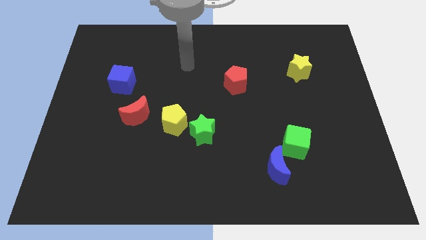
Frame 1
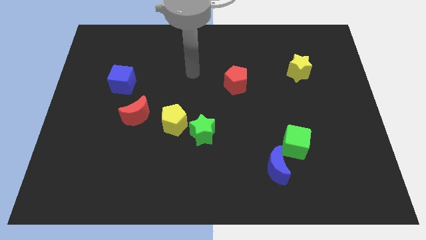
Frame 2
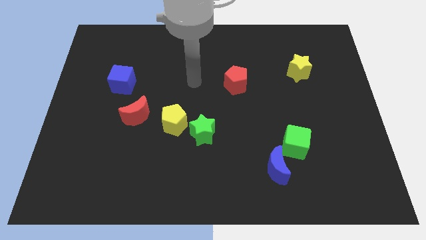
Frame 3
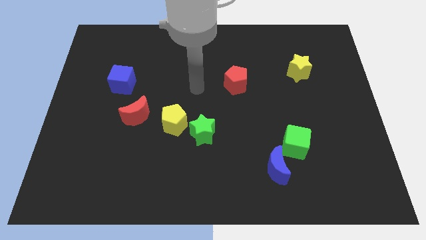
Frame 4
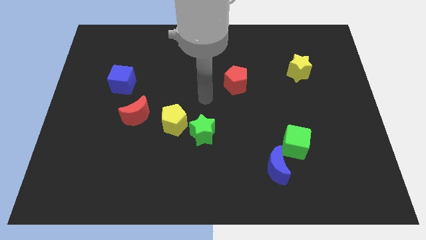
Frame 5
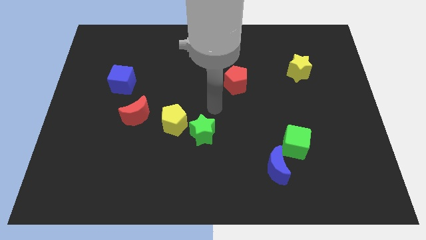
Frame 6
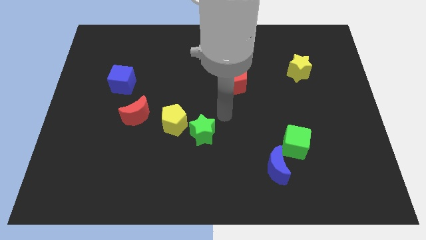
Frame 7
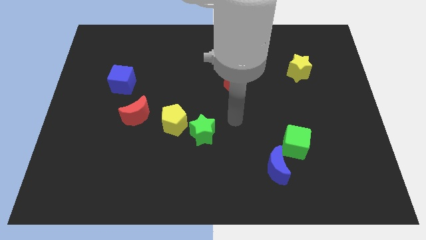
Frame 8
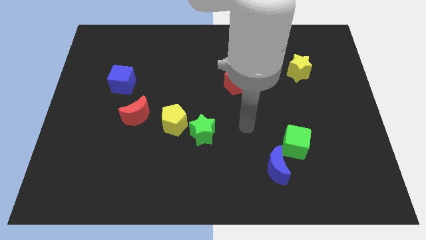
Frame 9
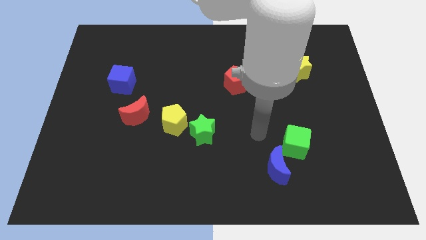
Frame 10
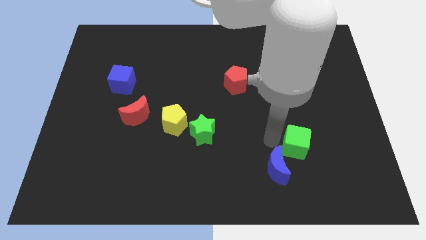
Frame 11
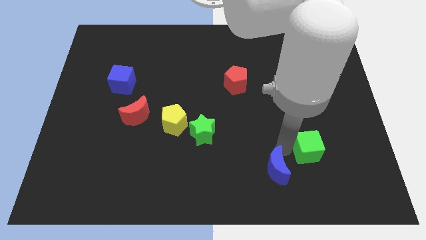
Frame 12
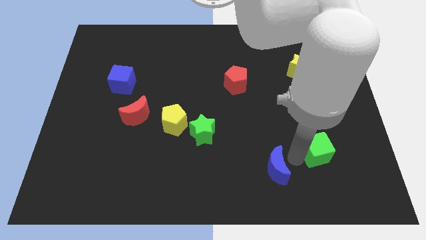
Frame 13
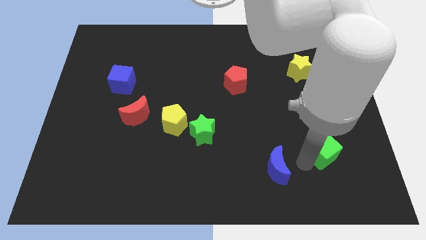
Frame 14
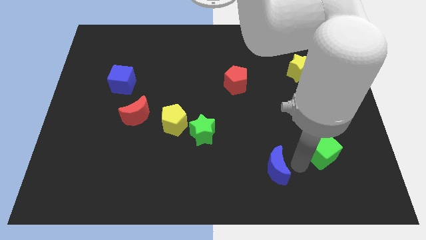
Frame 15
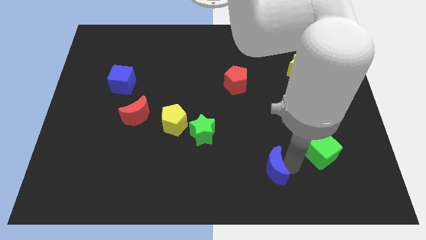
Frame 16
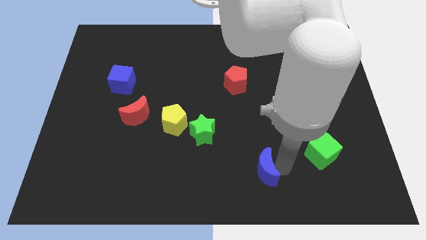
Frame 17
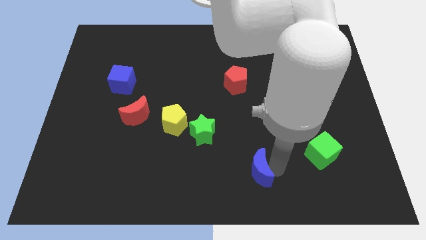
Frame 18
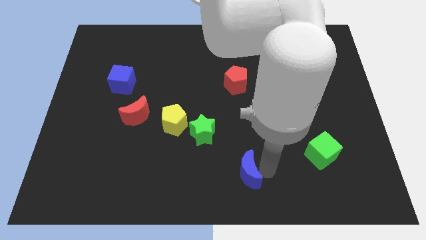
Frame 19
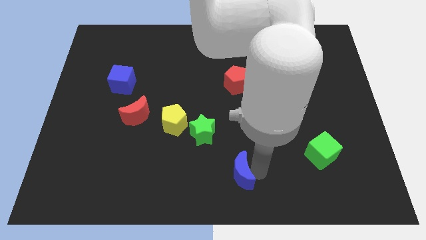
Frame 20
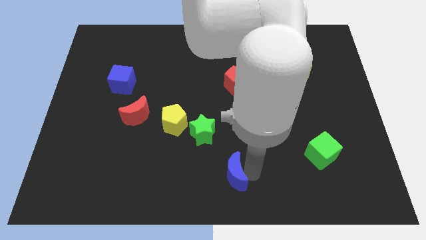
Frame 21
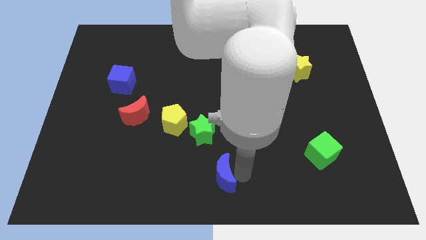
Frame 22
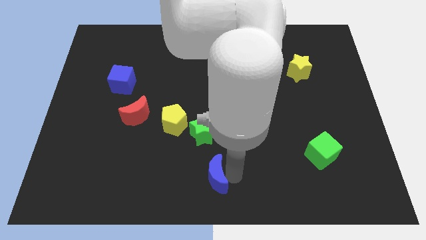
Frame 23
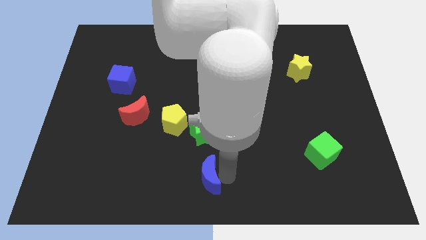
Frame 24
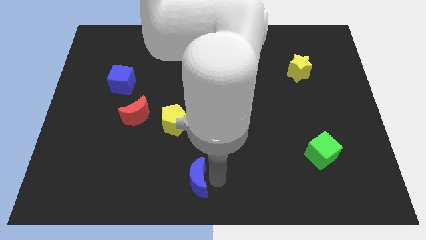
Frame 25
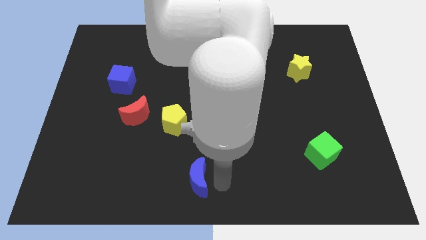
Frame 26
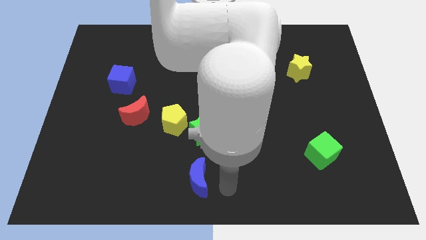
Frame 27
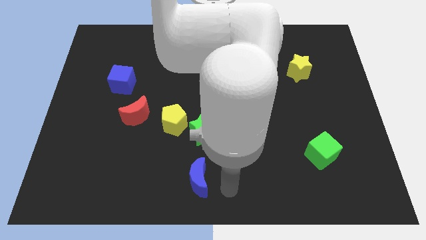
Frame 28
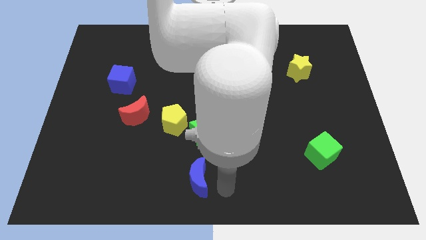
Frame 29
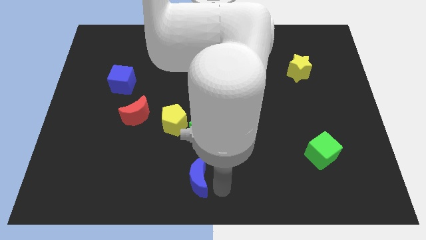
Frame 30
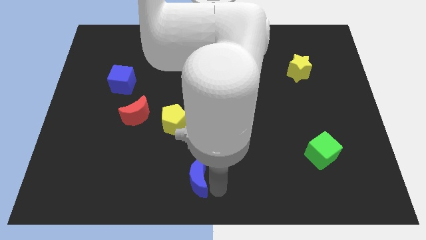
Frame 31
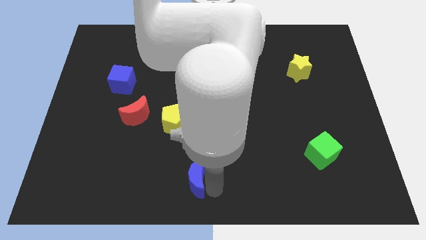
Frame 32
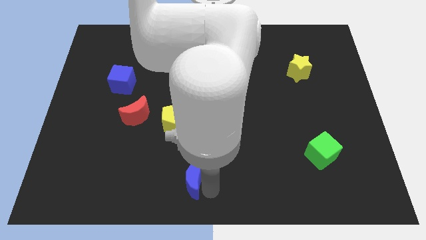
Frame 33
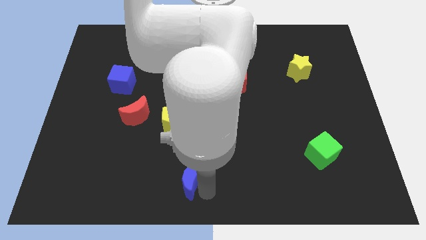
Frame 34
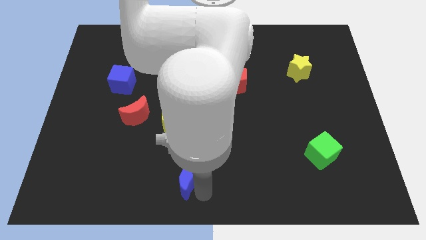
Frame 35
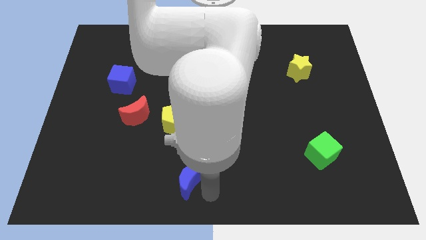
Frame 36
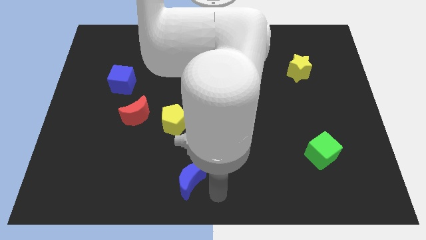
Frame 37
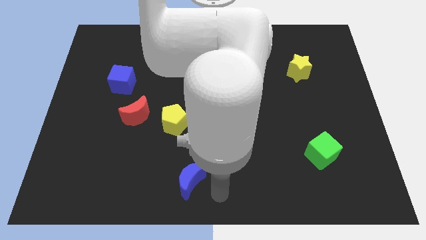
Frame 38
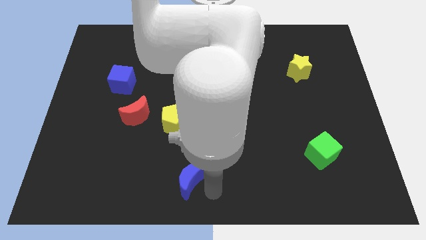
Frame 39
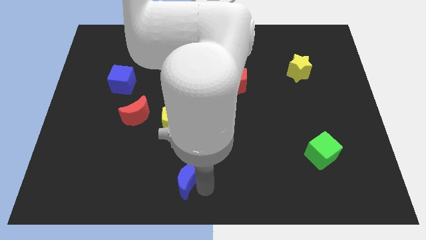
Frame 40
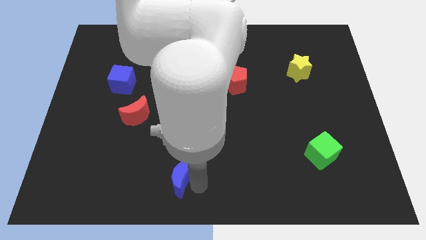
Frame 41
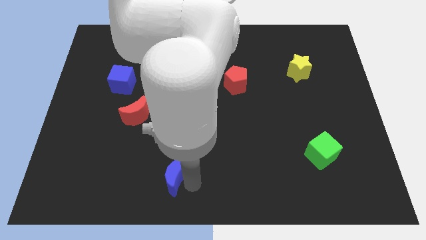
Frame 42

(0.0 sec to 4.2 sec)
slide the blue moon to the left

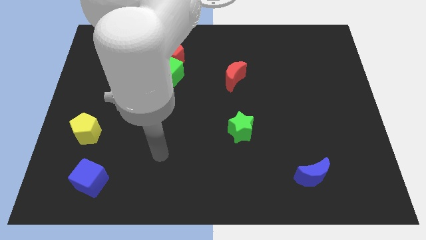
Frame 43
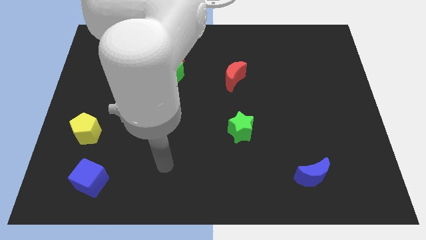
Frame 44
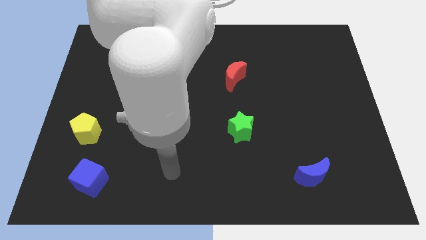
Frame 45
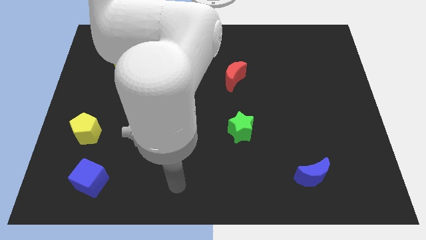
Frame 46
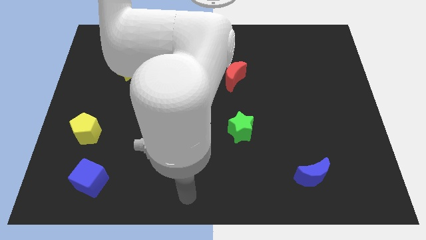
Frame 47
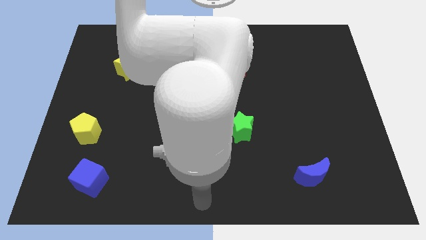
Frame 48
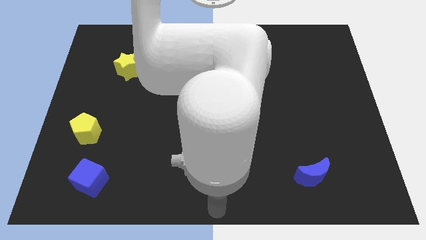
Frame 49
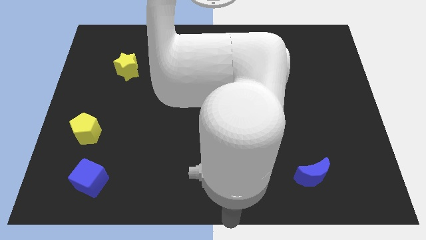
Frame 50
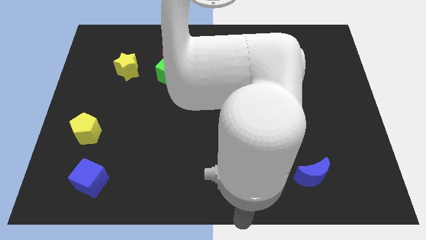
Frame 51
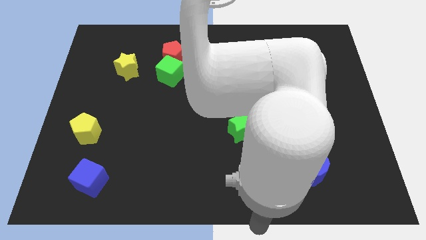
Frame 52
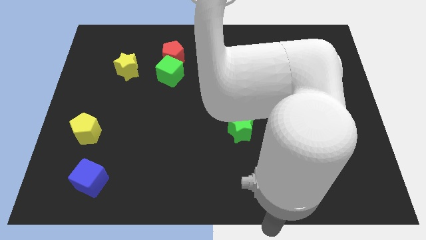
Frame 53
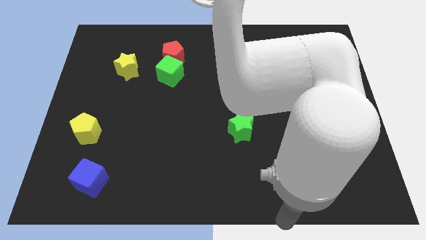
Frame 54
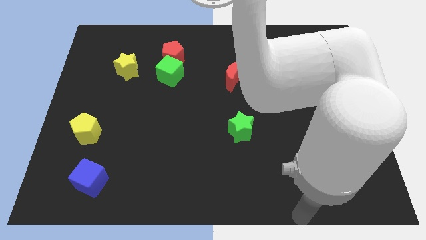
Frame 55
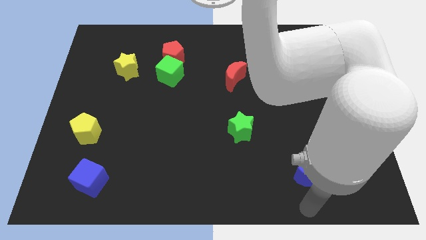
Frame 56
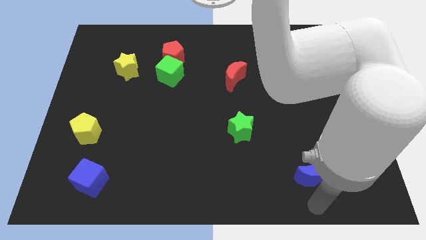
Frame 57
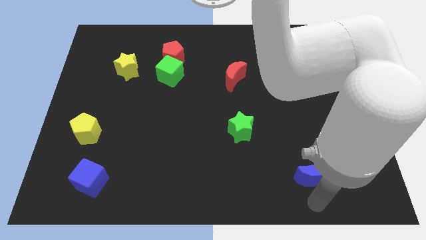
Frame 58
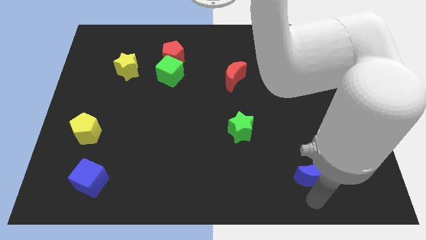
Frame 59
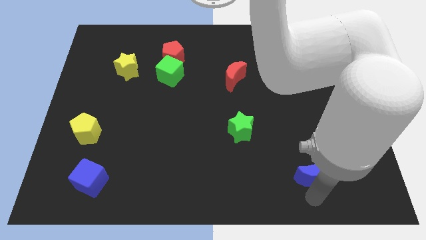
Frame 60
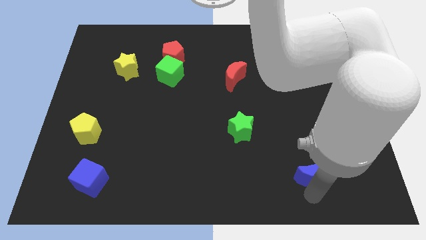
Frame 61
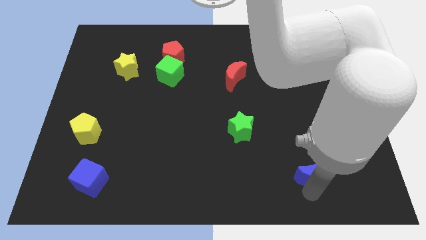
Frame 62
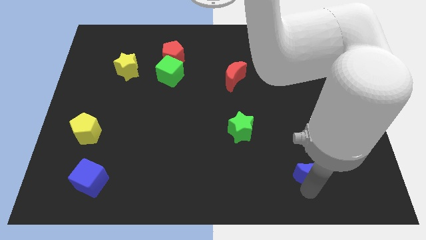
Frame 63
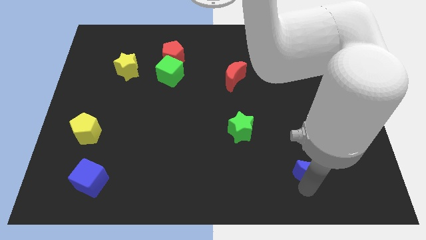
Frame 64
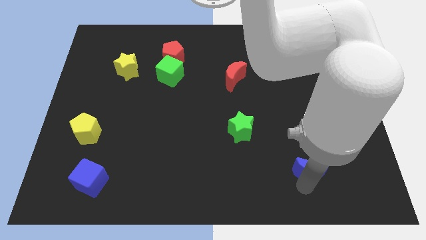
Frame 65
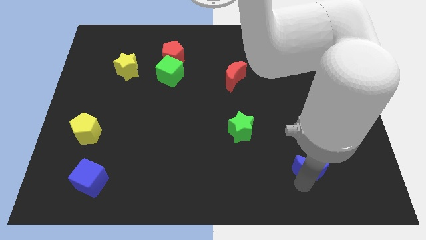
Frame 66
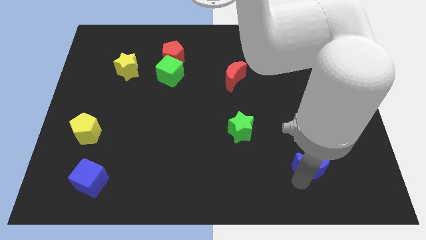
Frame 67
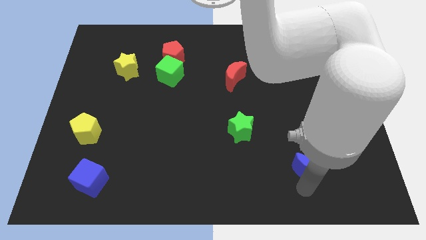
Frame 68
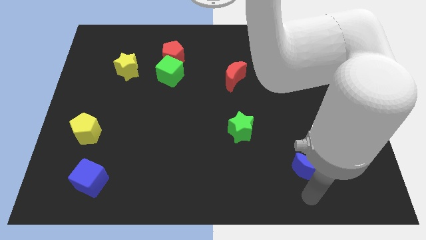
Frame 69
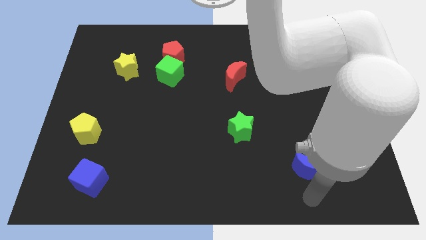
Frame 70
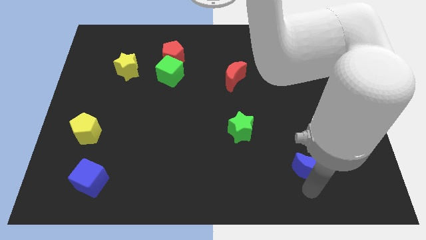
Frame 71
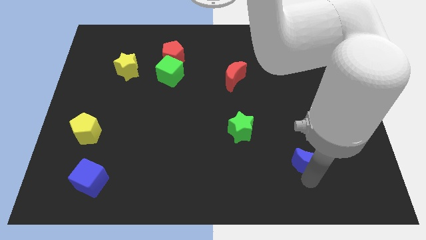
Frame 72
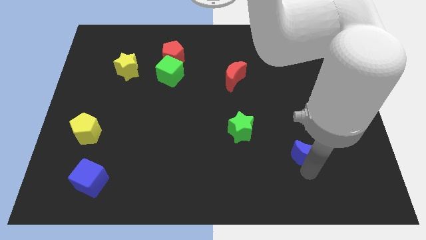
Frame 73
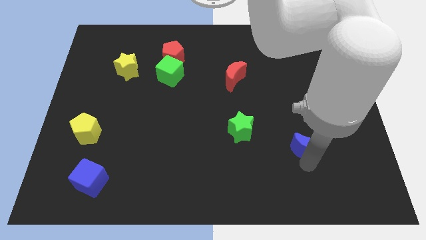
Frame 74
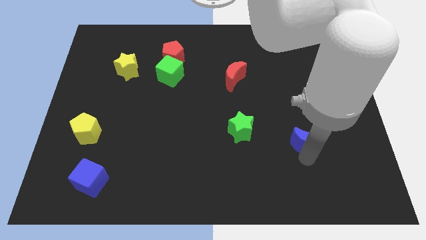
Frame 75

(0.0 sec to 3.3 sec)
slide the blue moon upwards a little bit

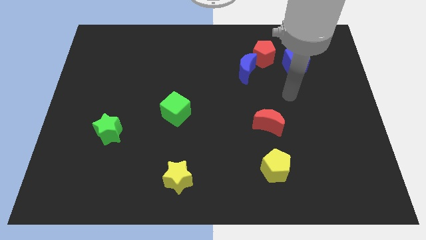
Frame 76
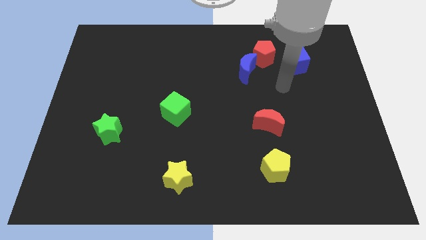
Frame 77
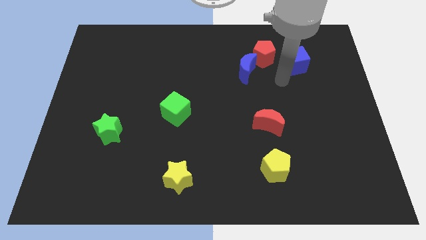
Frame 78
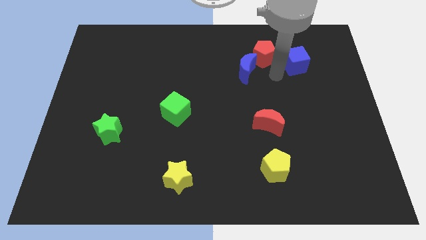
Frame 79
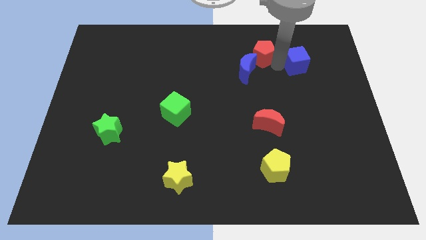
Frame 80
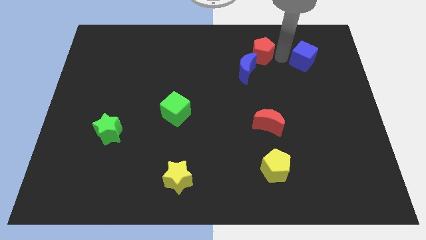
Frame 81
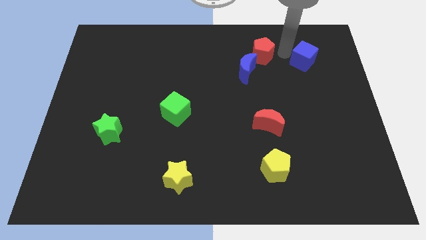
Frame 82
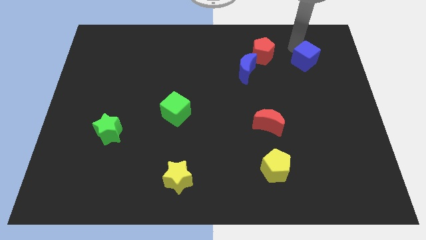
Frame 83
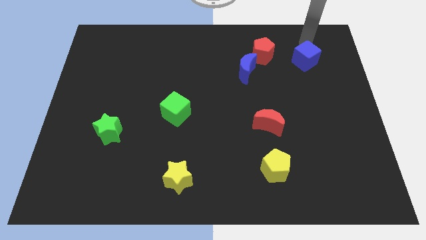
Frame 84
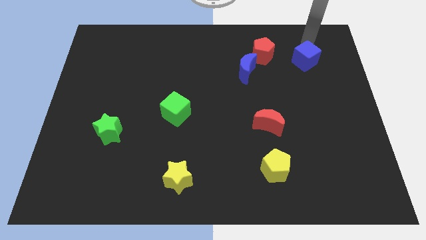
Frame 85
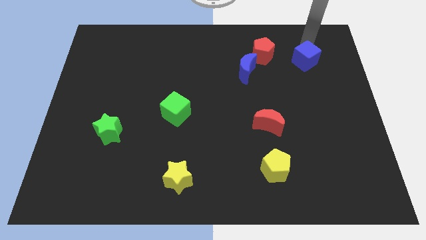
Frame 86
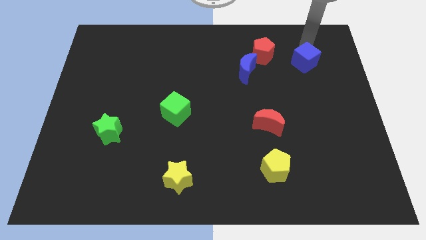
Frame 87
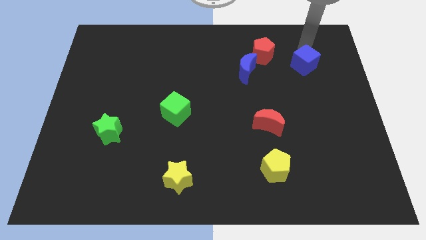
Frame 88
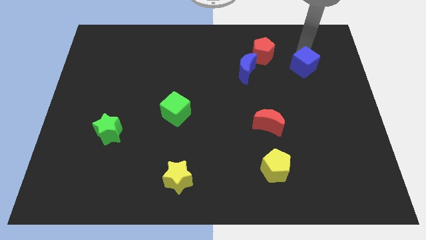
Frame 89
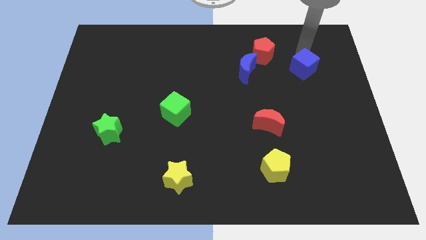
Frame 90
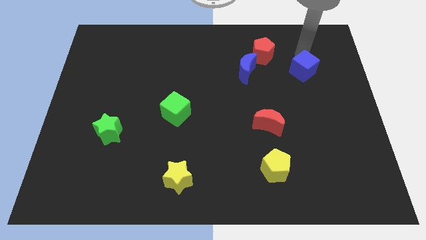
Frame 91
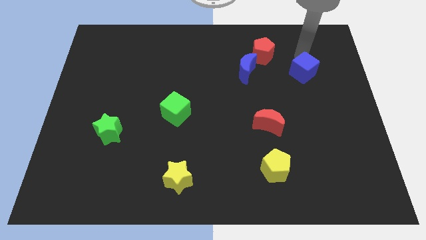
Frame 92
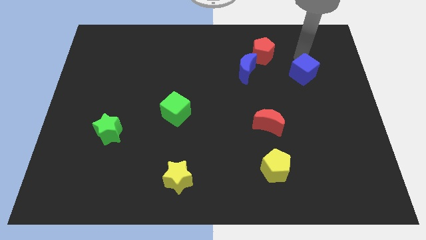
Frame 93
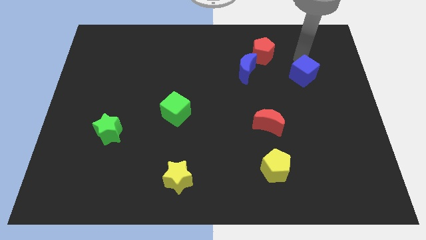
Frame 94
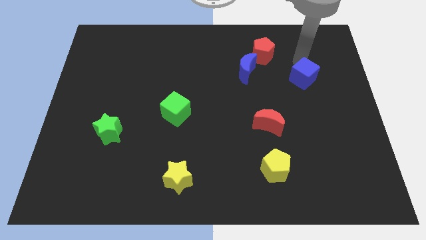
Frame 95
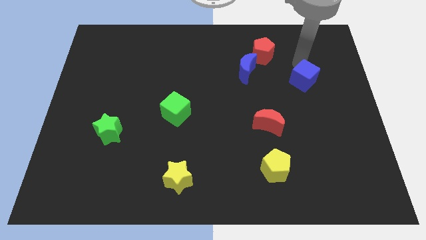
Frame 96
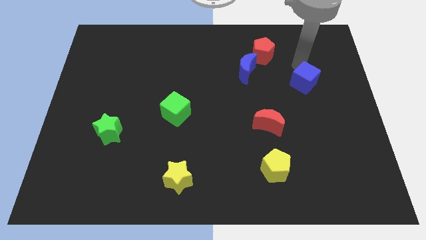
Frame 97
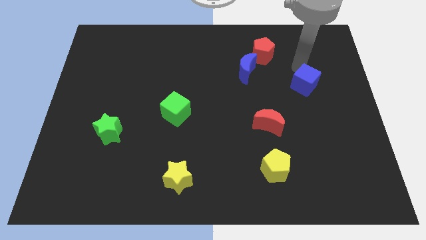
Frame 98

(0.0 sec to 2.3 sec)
move the blue cube slightly down
